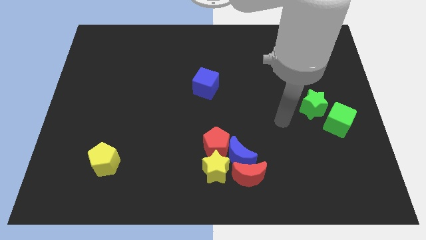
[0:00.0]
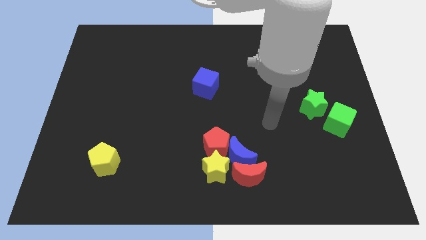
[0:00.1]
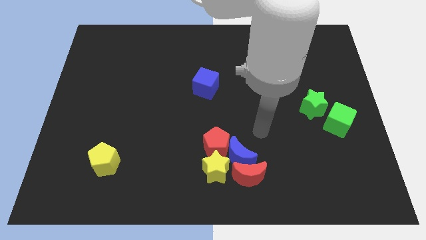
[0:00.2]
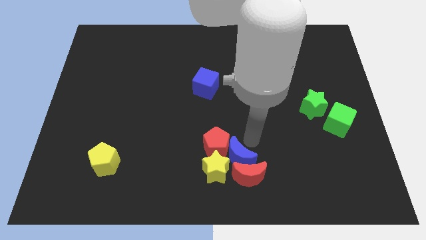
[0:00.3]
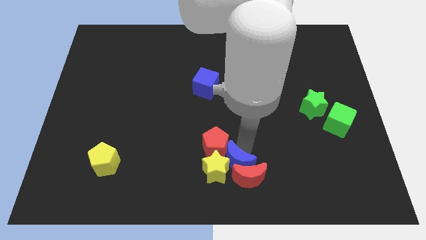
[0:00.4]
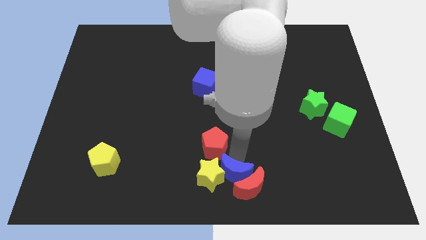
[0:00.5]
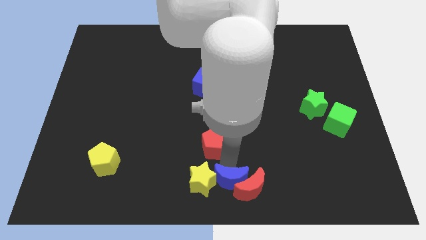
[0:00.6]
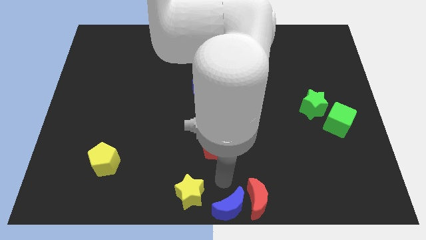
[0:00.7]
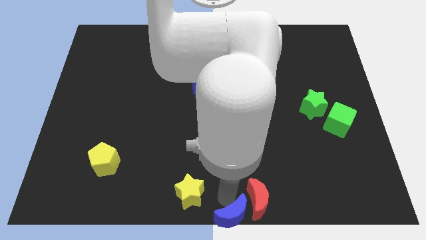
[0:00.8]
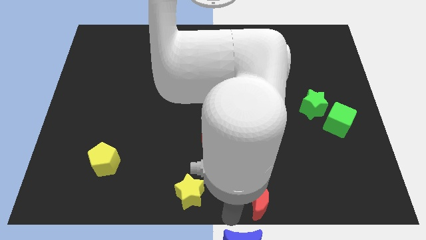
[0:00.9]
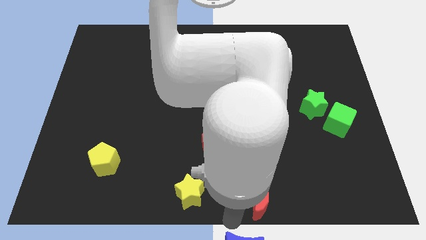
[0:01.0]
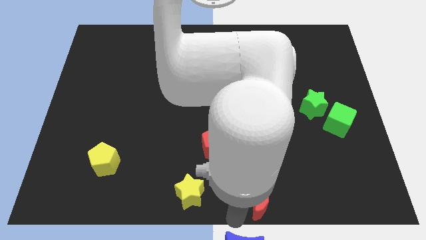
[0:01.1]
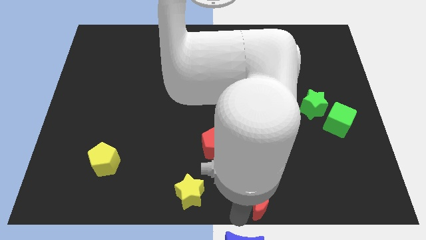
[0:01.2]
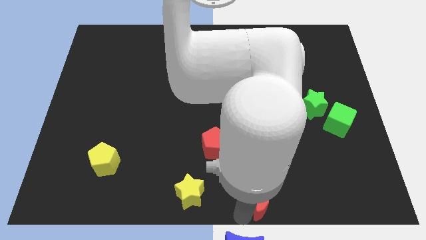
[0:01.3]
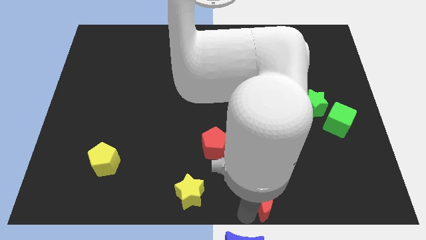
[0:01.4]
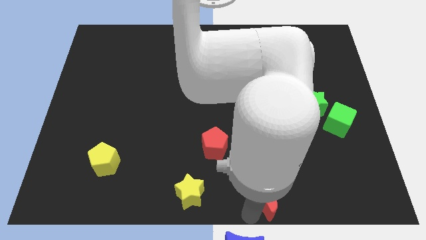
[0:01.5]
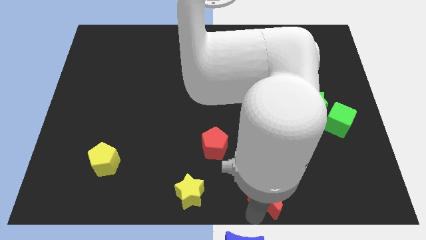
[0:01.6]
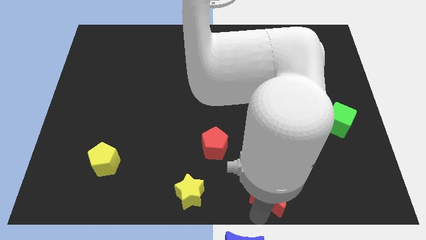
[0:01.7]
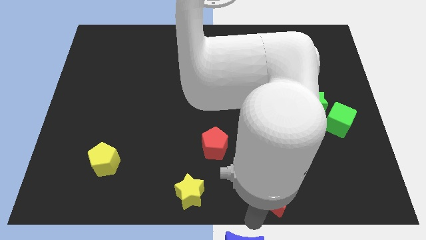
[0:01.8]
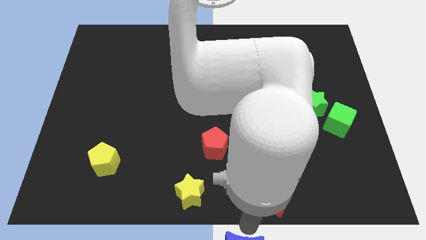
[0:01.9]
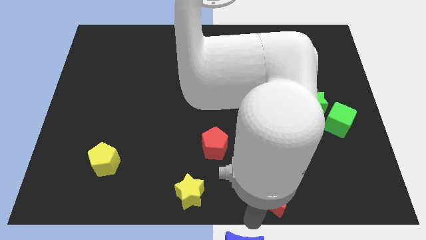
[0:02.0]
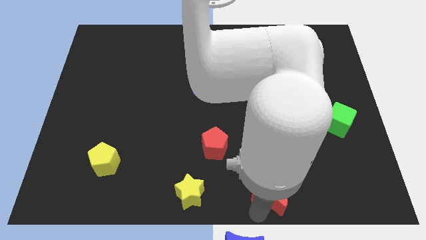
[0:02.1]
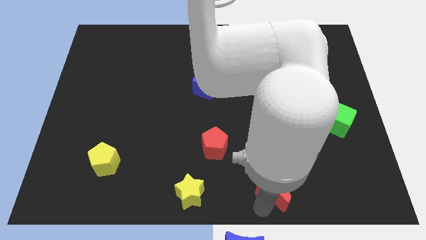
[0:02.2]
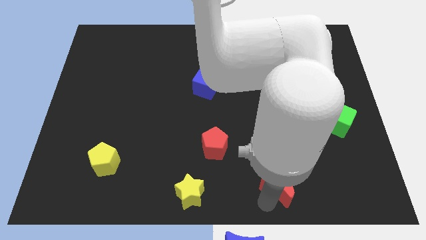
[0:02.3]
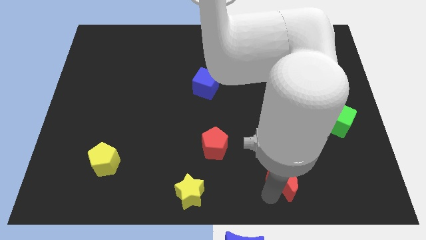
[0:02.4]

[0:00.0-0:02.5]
push the red moon to the right a little

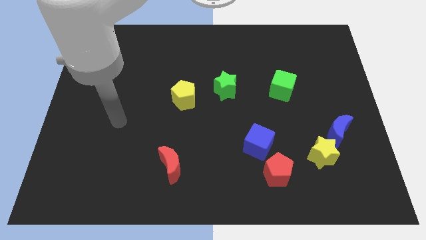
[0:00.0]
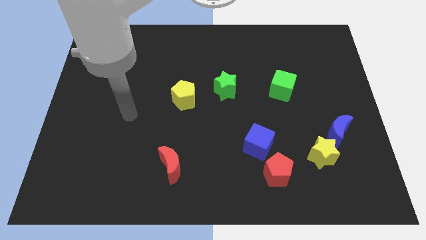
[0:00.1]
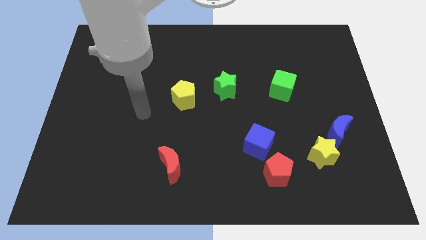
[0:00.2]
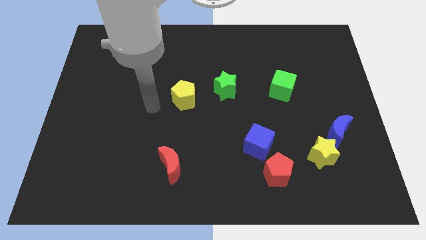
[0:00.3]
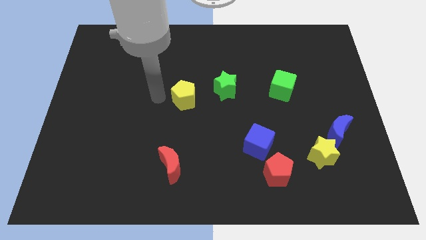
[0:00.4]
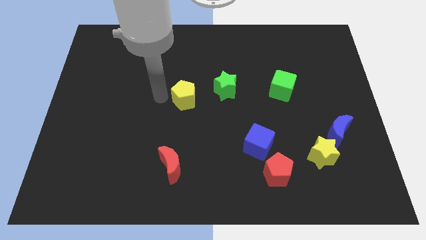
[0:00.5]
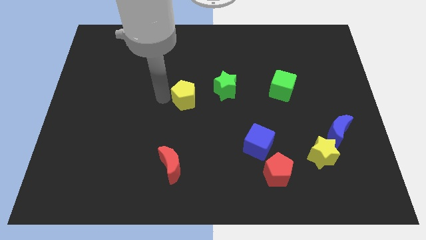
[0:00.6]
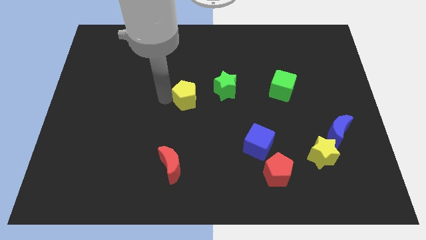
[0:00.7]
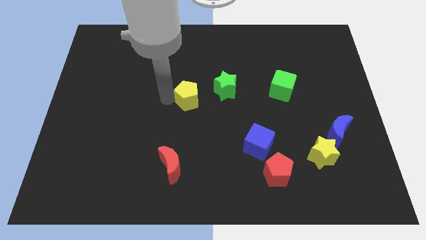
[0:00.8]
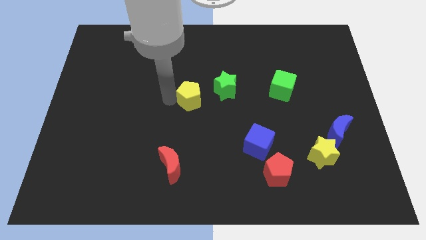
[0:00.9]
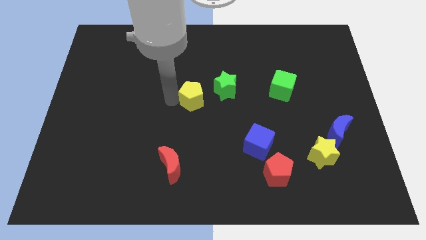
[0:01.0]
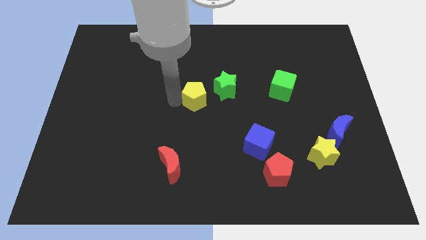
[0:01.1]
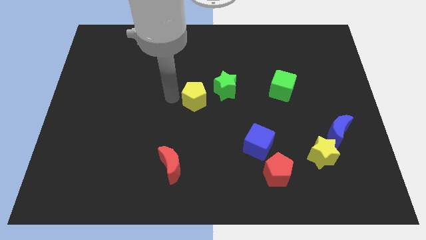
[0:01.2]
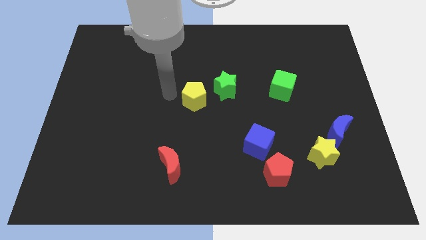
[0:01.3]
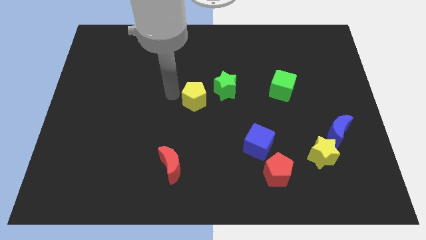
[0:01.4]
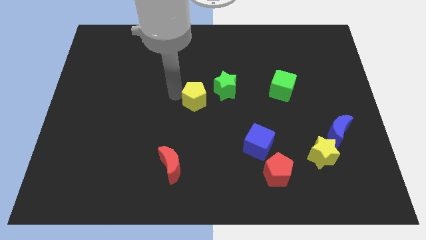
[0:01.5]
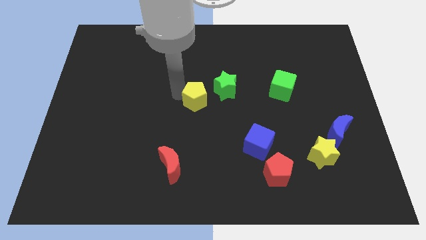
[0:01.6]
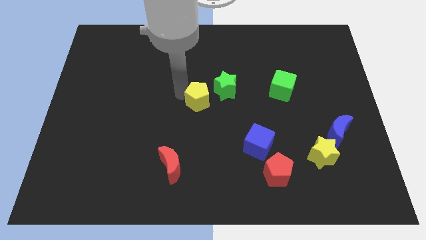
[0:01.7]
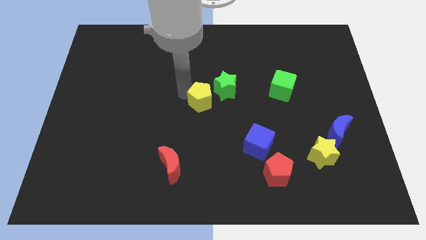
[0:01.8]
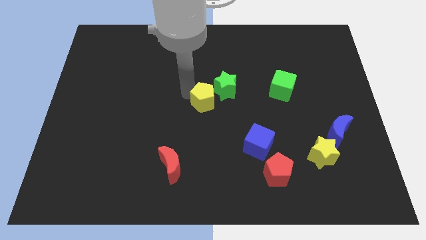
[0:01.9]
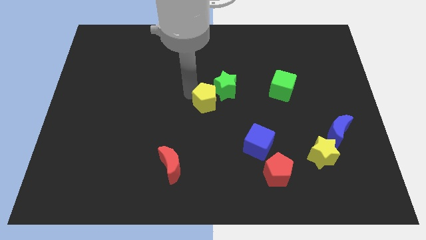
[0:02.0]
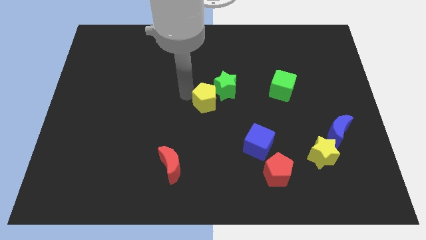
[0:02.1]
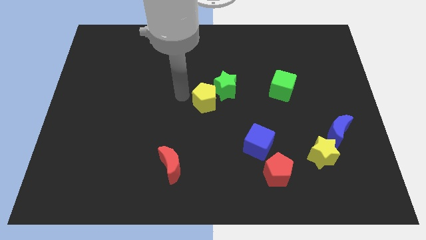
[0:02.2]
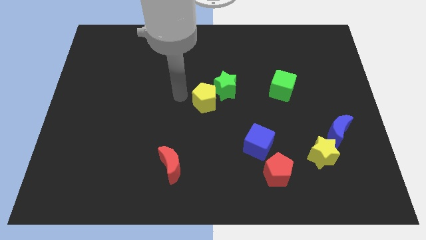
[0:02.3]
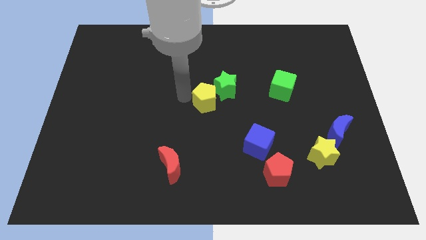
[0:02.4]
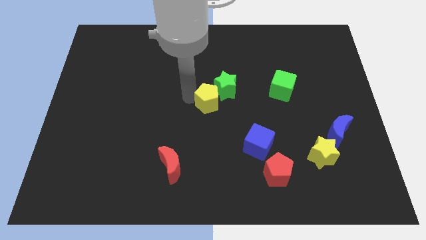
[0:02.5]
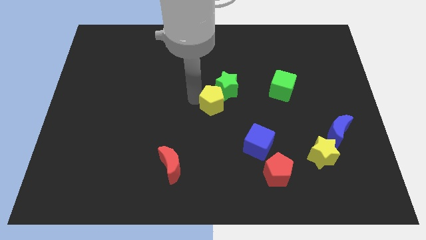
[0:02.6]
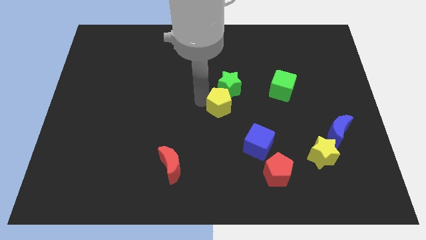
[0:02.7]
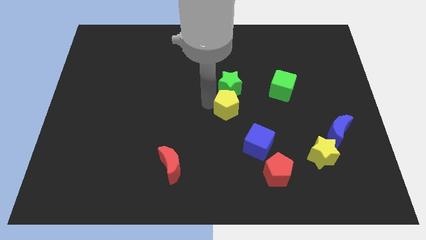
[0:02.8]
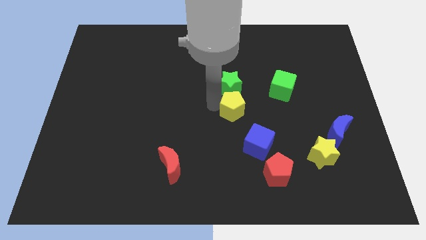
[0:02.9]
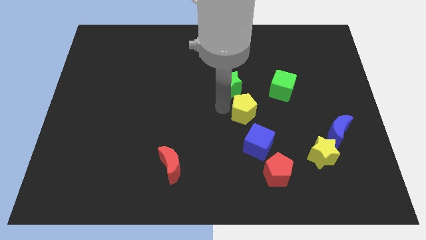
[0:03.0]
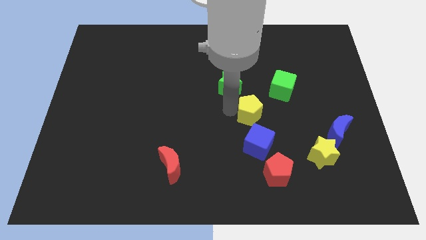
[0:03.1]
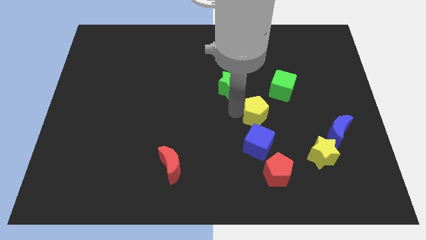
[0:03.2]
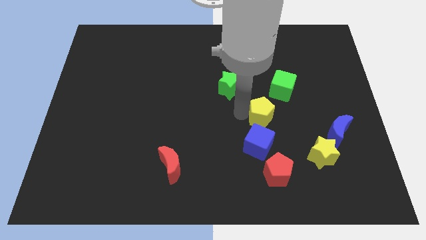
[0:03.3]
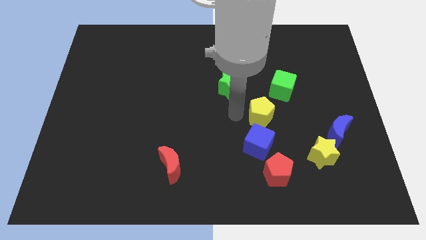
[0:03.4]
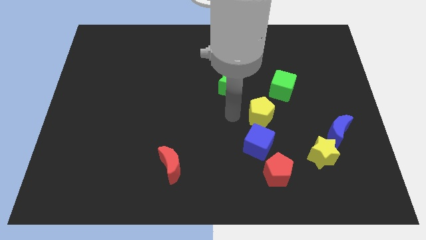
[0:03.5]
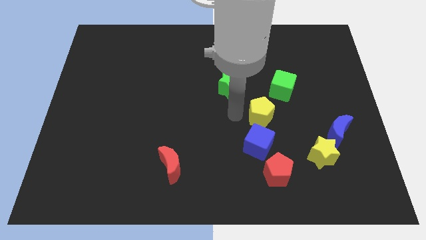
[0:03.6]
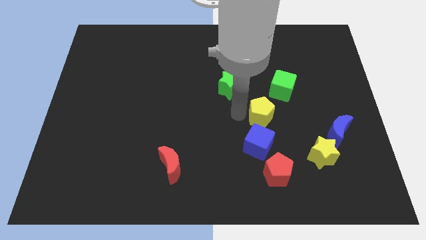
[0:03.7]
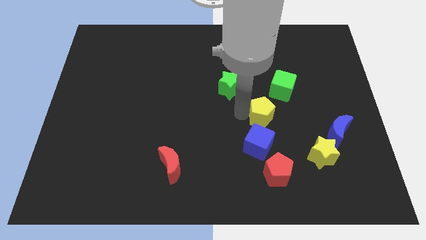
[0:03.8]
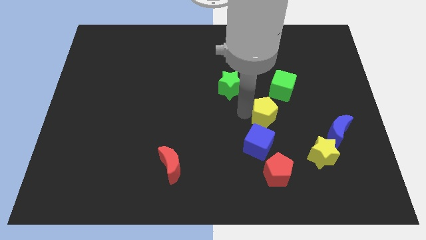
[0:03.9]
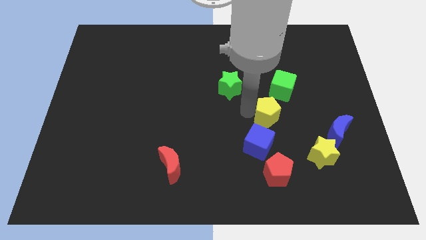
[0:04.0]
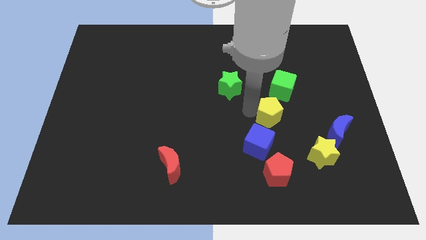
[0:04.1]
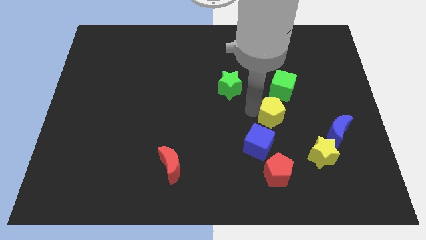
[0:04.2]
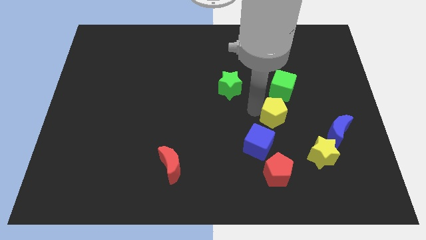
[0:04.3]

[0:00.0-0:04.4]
push the yellow pentagon right

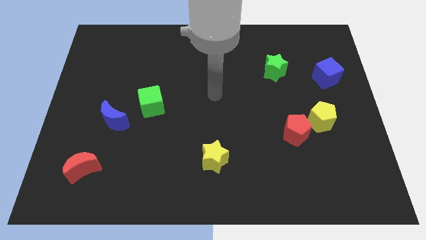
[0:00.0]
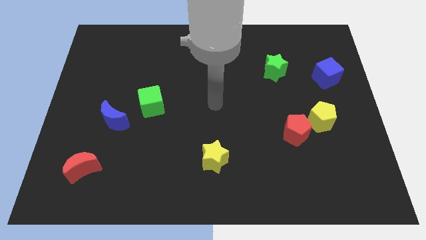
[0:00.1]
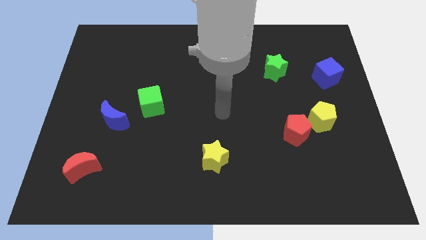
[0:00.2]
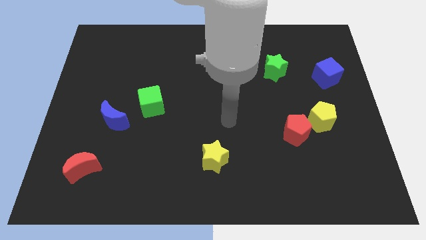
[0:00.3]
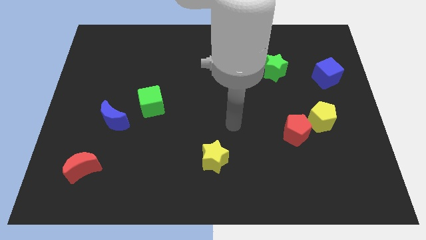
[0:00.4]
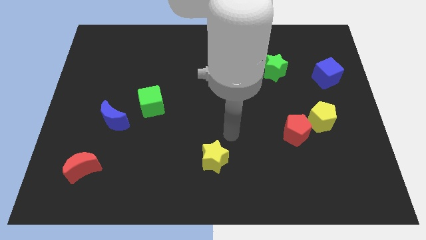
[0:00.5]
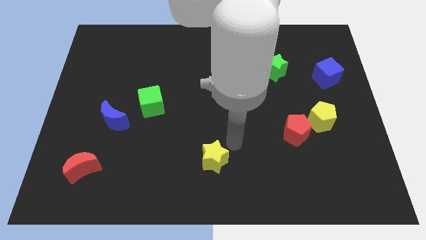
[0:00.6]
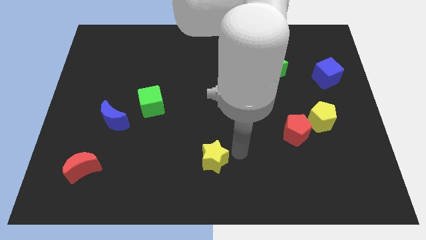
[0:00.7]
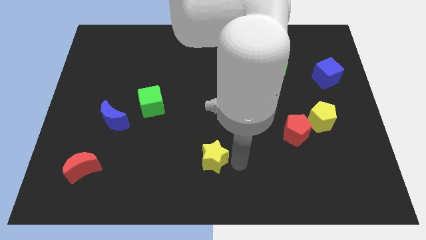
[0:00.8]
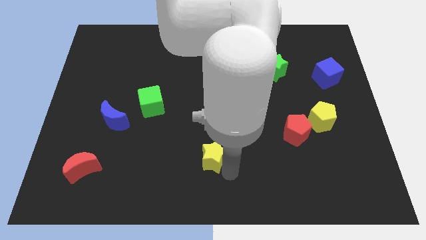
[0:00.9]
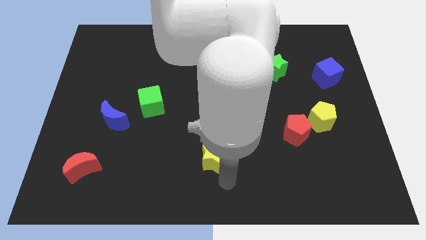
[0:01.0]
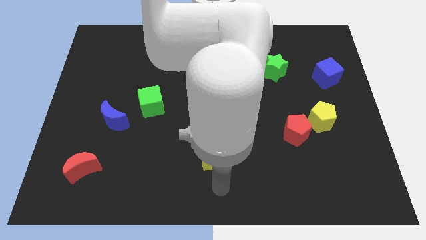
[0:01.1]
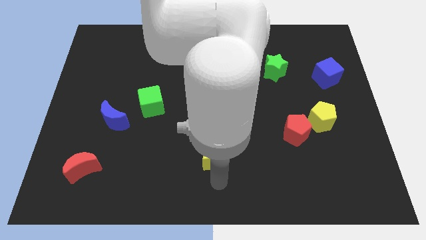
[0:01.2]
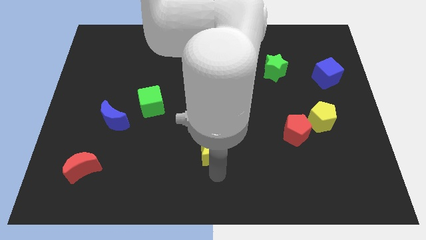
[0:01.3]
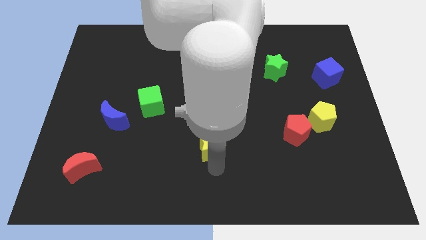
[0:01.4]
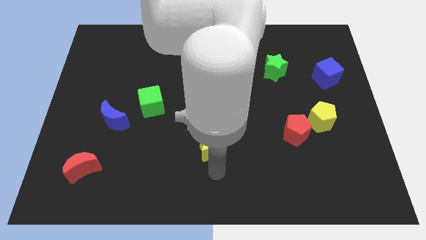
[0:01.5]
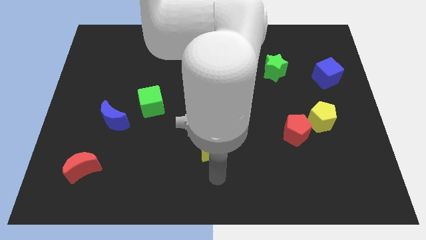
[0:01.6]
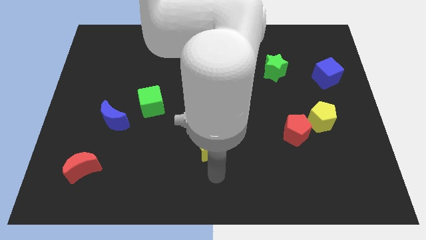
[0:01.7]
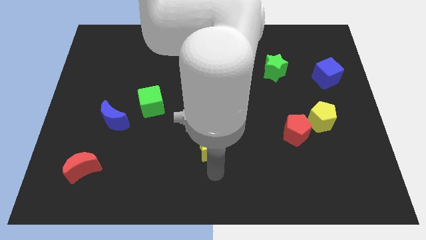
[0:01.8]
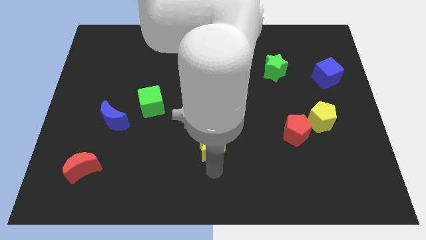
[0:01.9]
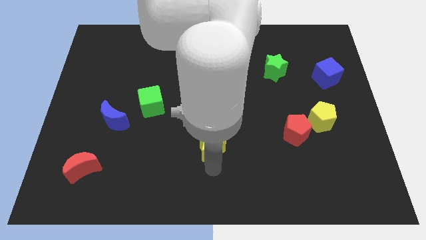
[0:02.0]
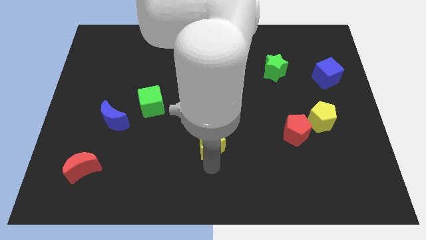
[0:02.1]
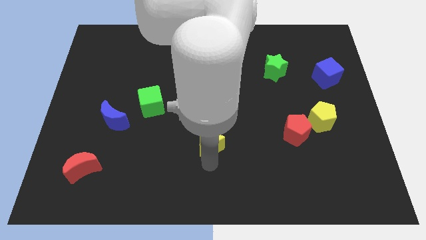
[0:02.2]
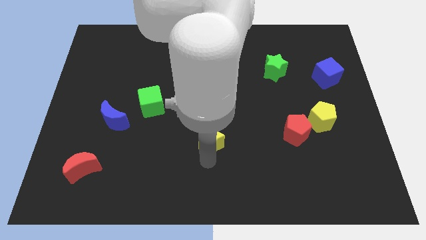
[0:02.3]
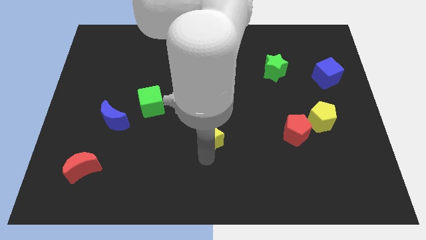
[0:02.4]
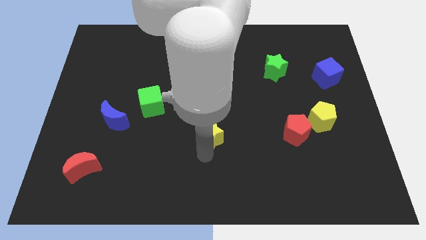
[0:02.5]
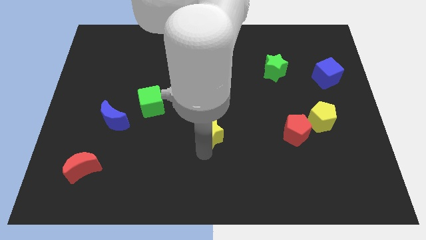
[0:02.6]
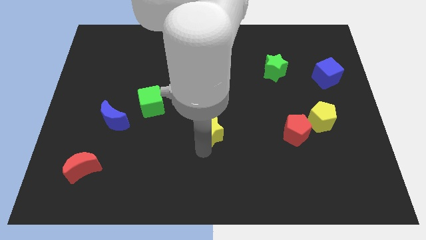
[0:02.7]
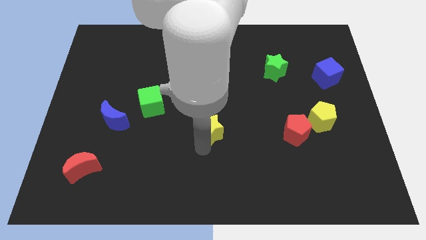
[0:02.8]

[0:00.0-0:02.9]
slightly move the yellow star upwards
